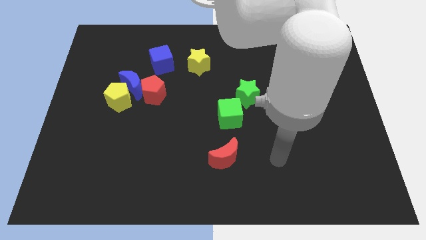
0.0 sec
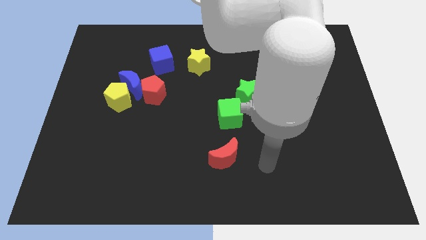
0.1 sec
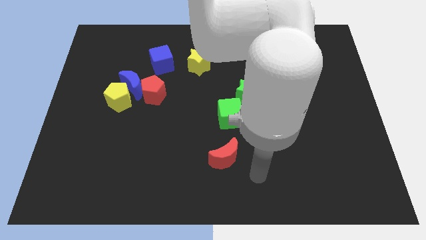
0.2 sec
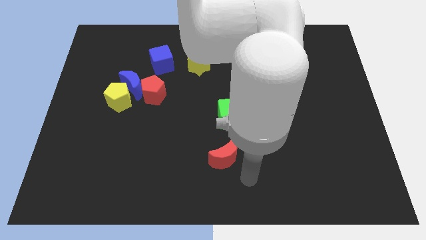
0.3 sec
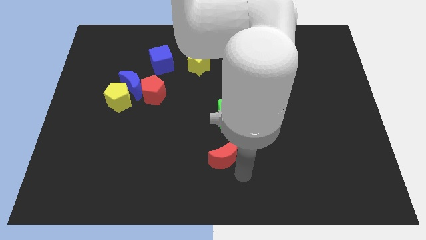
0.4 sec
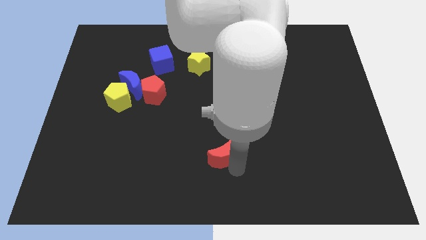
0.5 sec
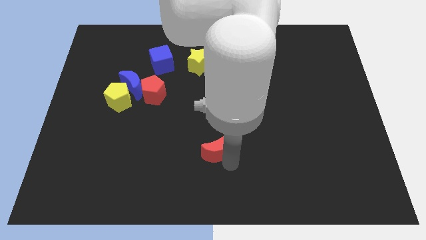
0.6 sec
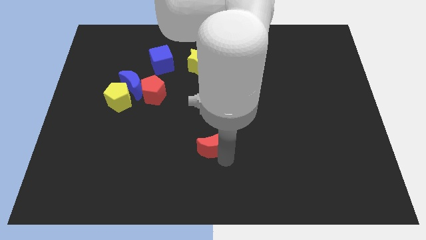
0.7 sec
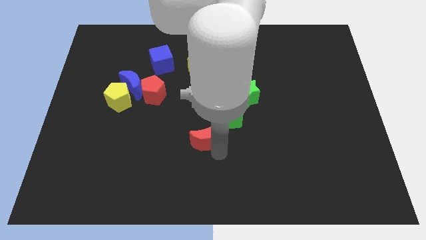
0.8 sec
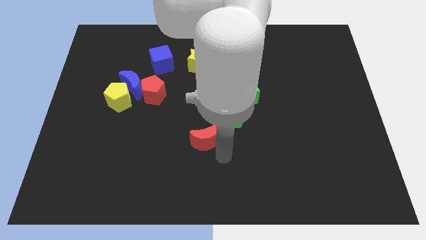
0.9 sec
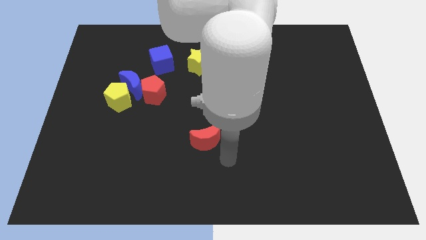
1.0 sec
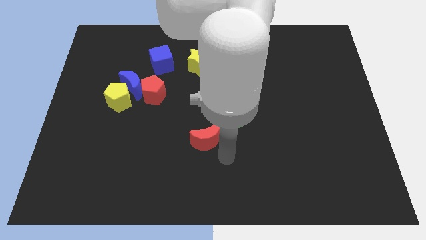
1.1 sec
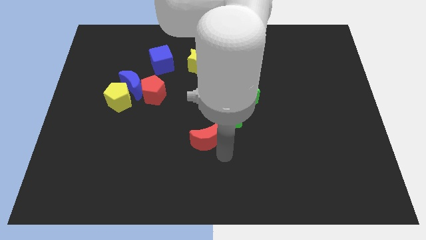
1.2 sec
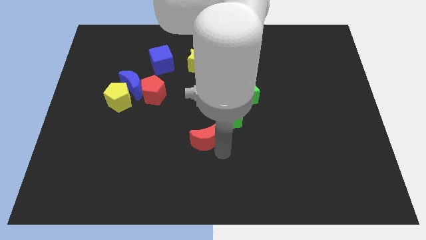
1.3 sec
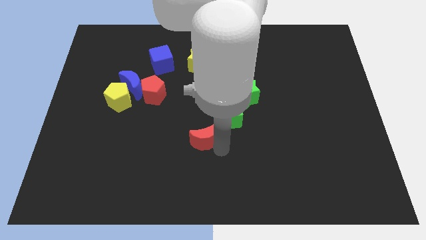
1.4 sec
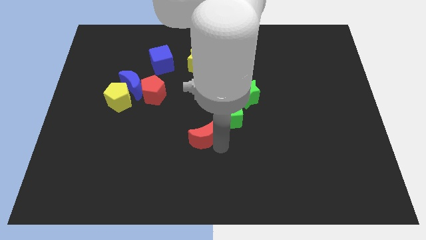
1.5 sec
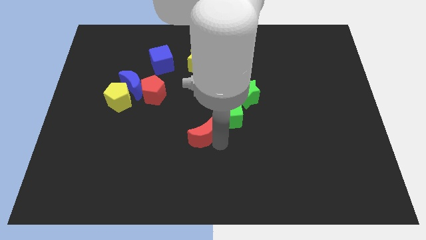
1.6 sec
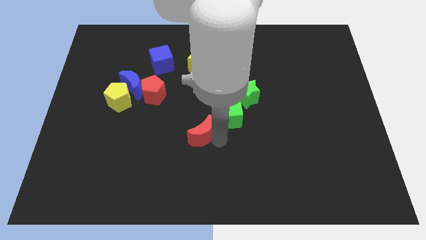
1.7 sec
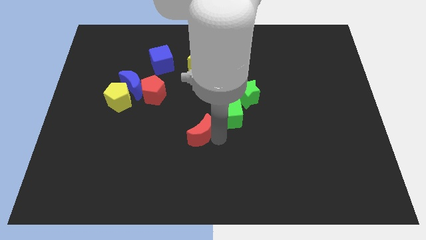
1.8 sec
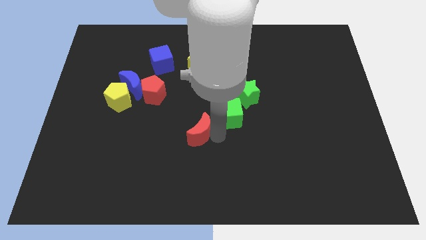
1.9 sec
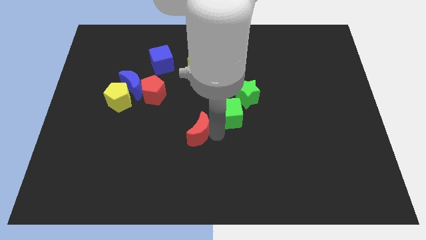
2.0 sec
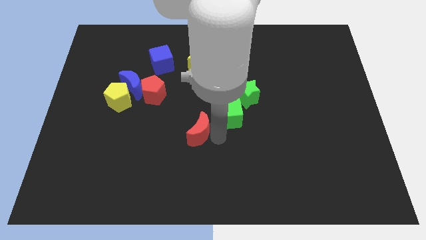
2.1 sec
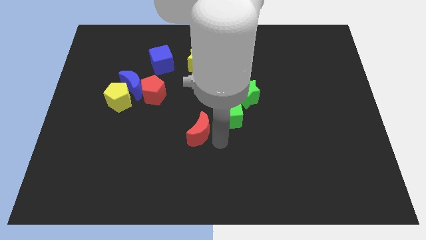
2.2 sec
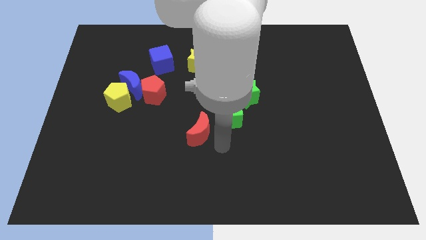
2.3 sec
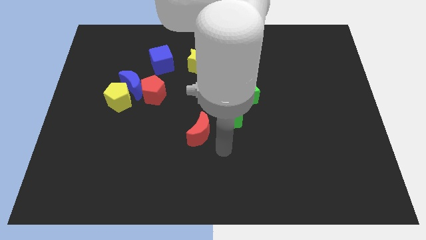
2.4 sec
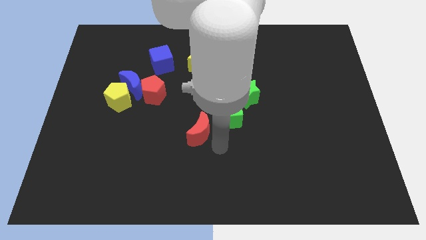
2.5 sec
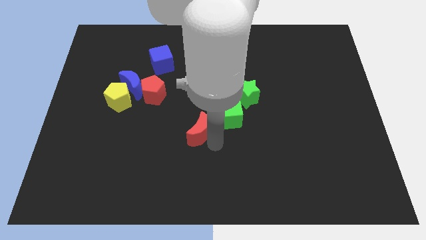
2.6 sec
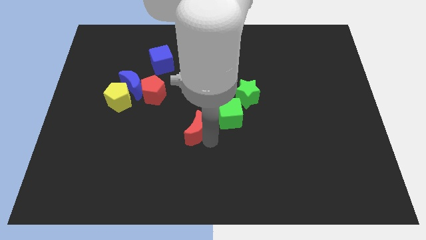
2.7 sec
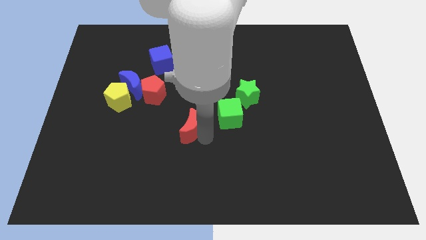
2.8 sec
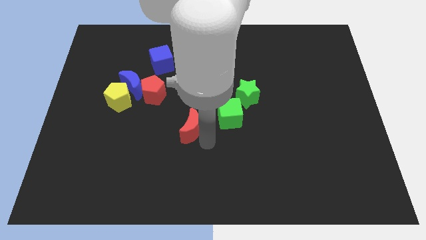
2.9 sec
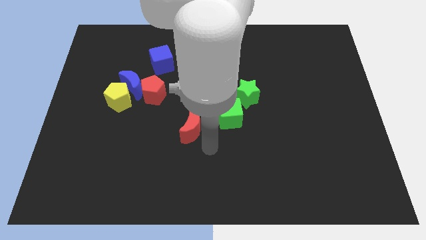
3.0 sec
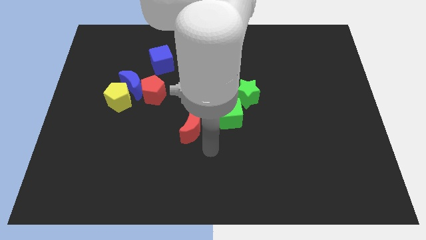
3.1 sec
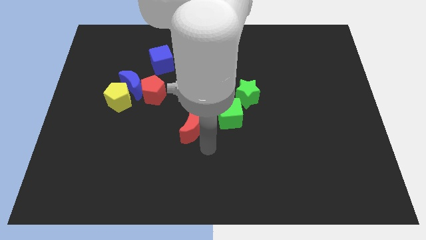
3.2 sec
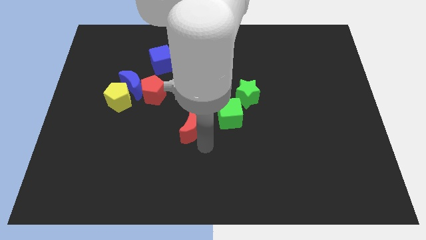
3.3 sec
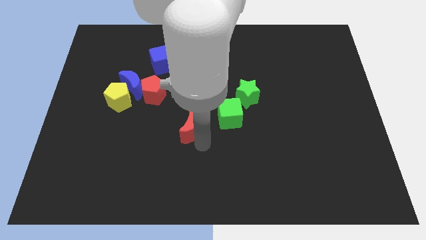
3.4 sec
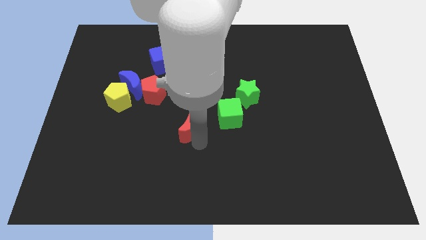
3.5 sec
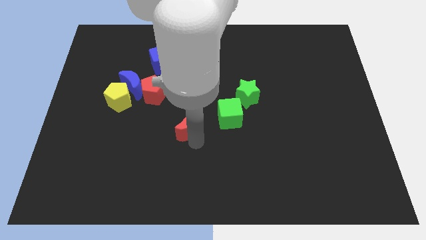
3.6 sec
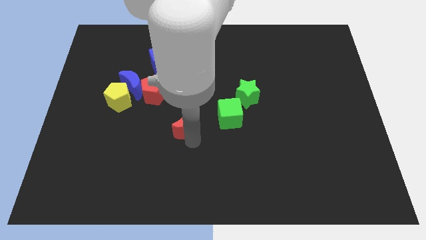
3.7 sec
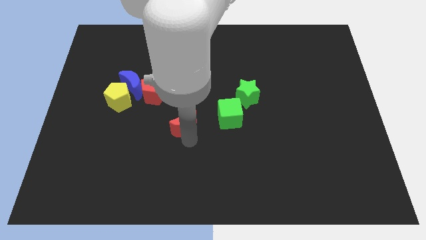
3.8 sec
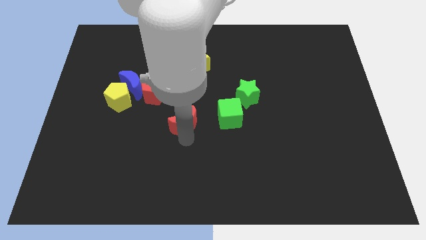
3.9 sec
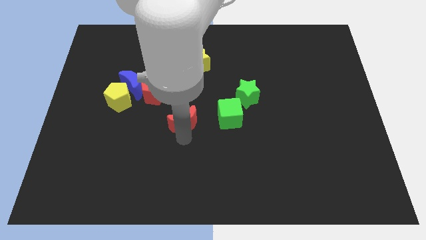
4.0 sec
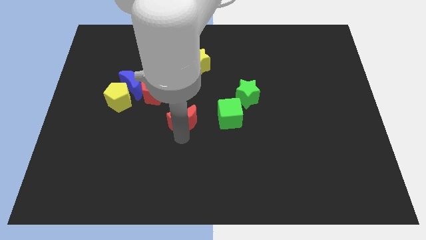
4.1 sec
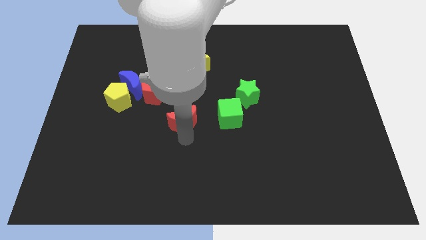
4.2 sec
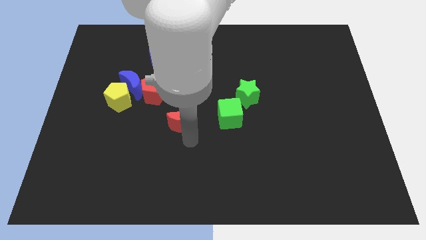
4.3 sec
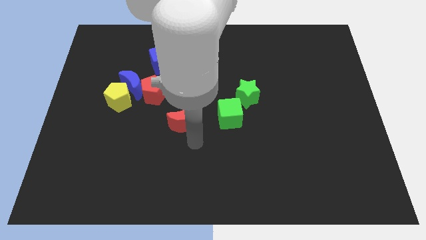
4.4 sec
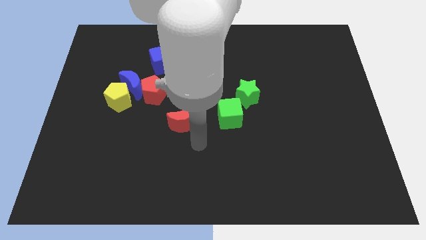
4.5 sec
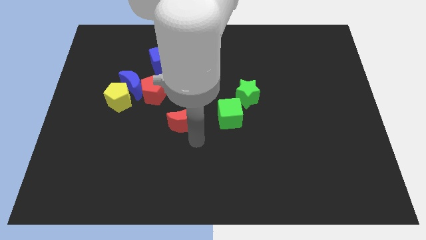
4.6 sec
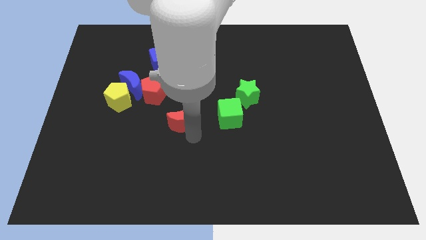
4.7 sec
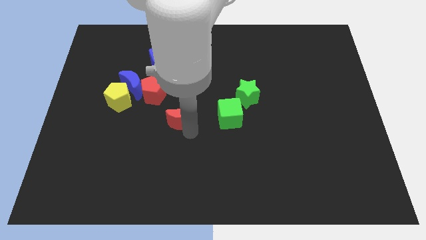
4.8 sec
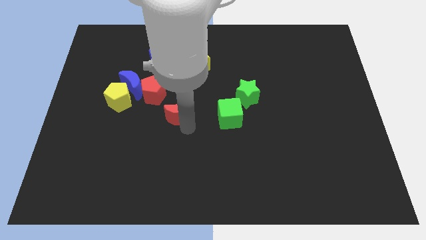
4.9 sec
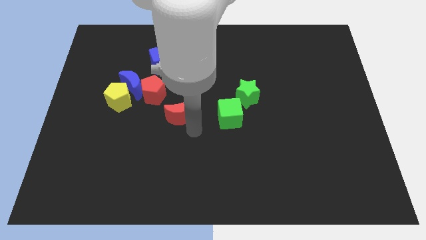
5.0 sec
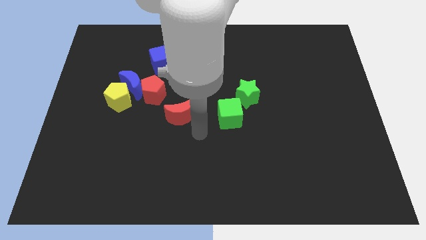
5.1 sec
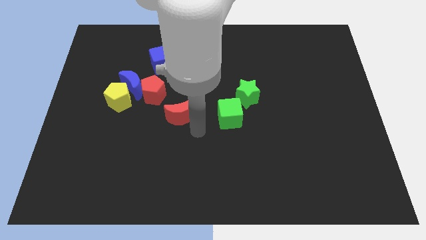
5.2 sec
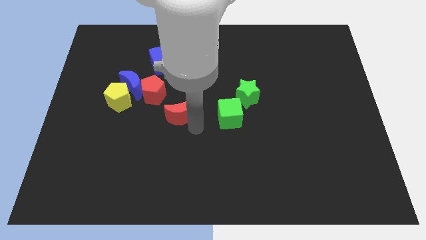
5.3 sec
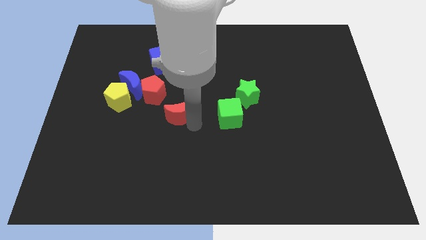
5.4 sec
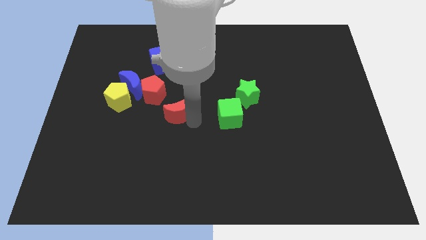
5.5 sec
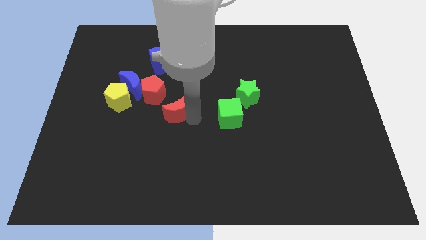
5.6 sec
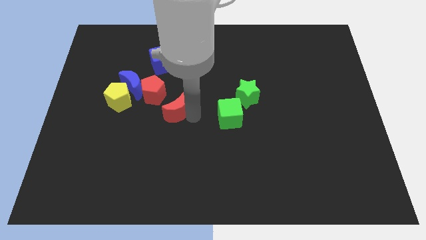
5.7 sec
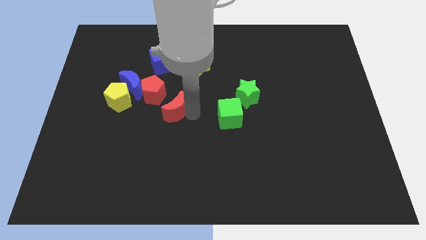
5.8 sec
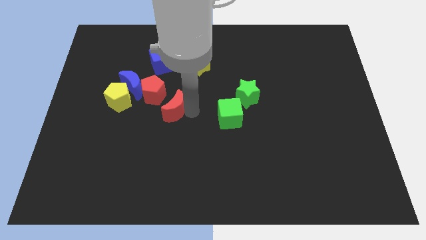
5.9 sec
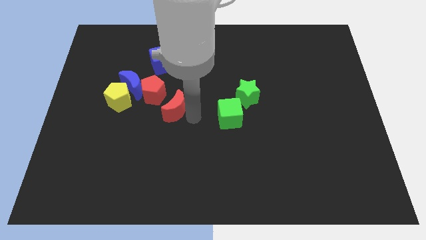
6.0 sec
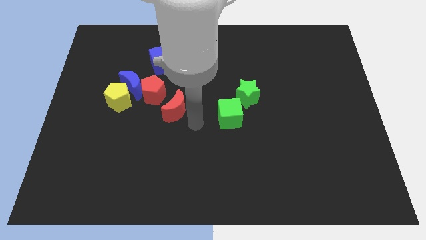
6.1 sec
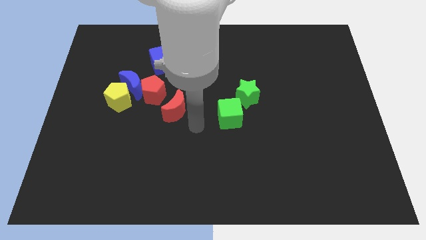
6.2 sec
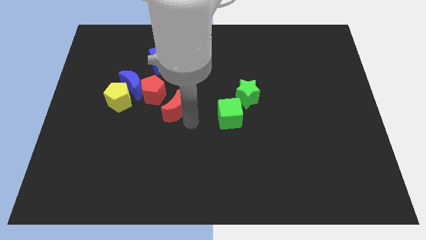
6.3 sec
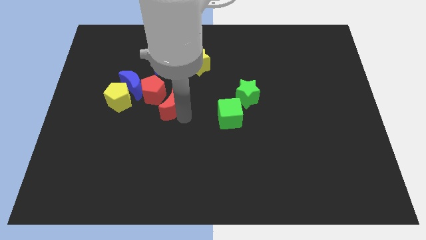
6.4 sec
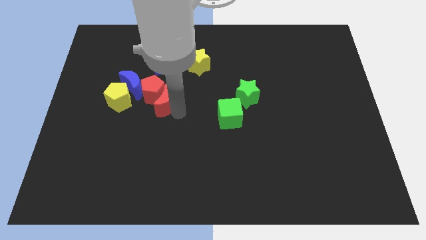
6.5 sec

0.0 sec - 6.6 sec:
put the red moon next to the red pentagon
